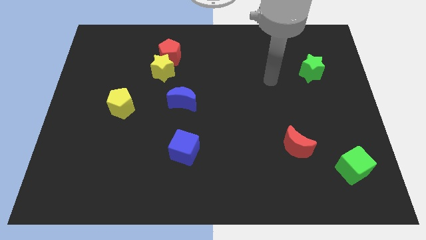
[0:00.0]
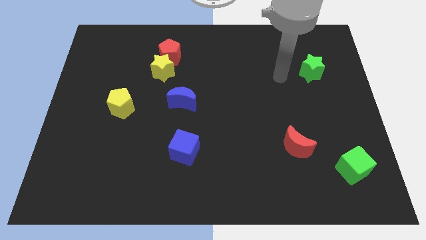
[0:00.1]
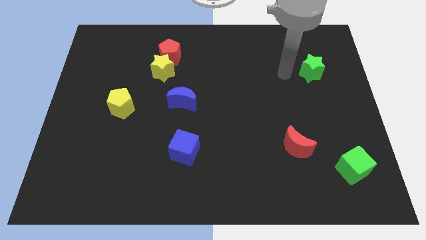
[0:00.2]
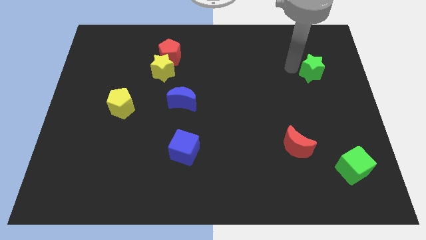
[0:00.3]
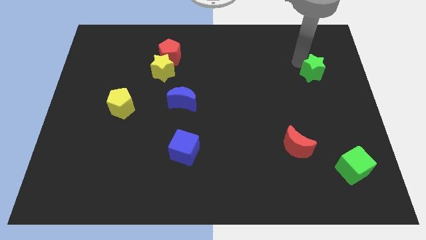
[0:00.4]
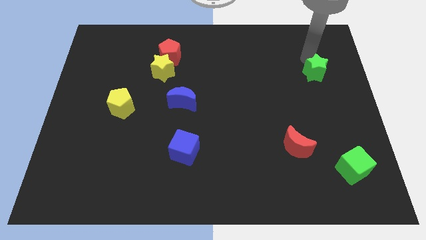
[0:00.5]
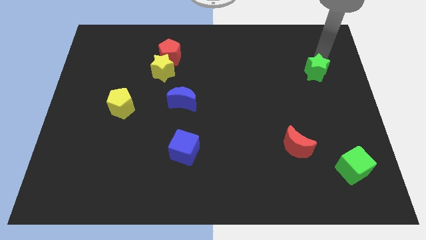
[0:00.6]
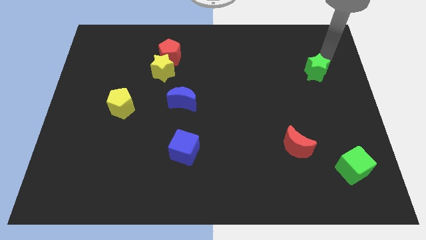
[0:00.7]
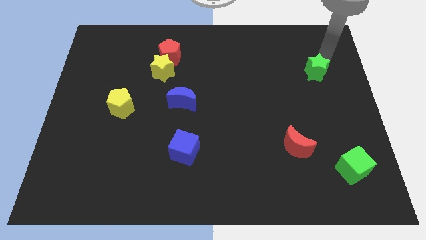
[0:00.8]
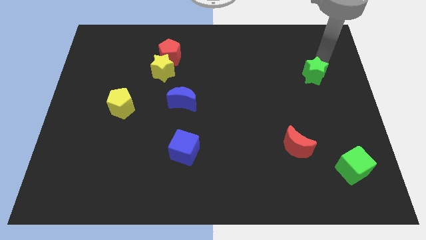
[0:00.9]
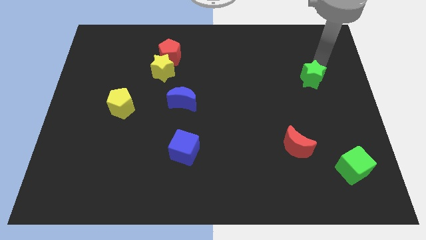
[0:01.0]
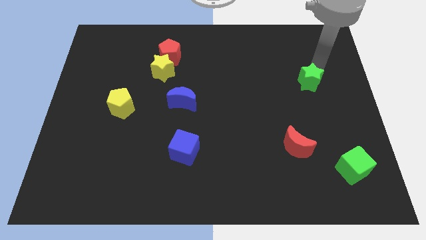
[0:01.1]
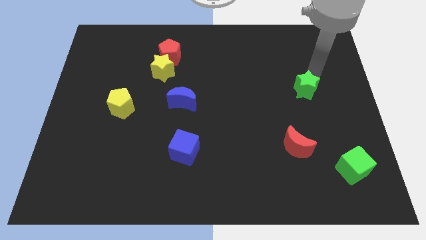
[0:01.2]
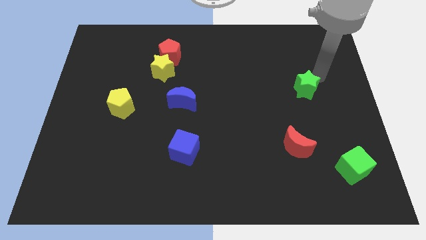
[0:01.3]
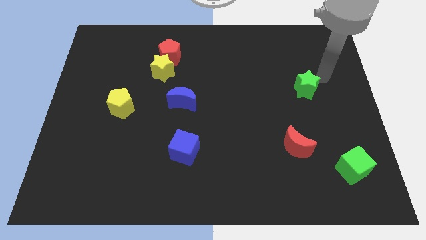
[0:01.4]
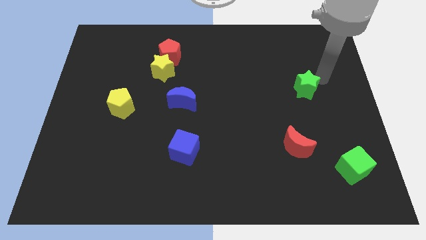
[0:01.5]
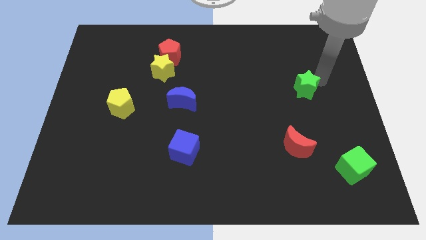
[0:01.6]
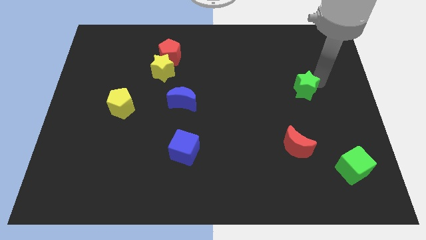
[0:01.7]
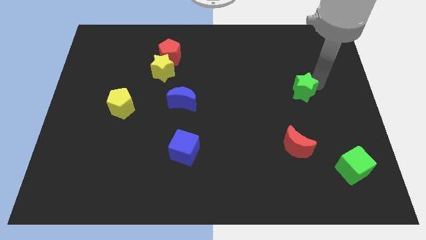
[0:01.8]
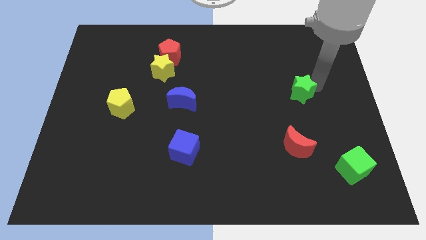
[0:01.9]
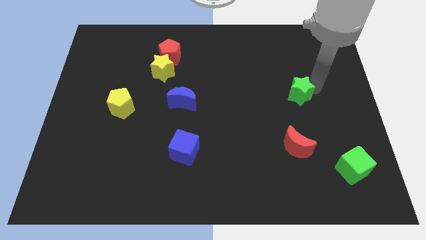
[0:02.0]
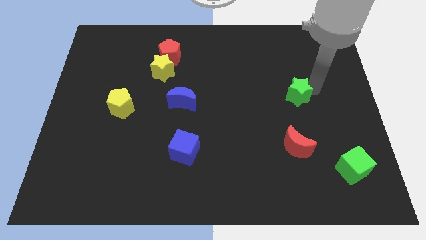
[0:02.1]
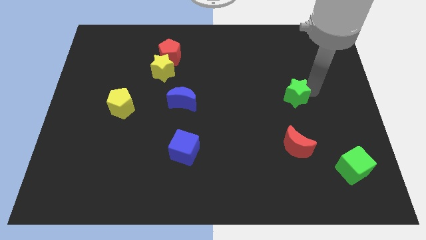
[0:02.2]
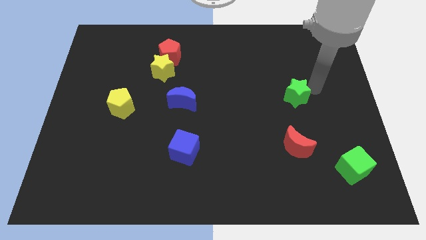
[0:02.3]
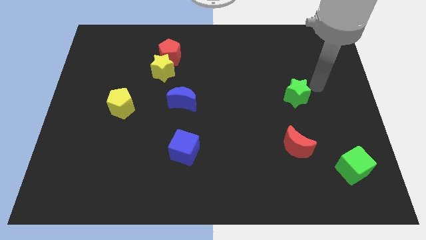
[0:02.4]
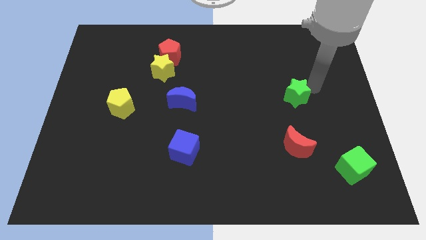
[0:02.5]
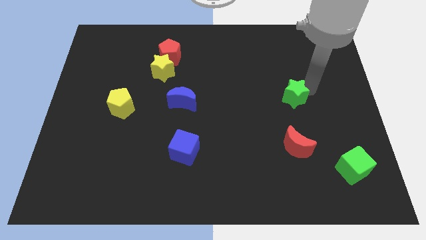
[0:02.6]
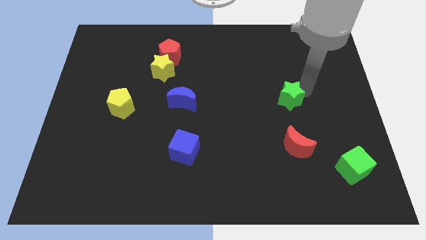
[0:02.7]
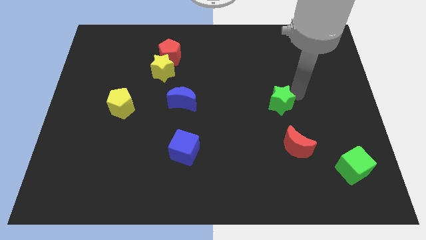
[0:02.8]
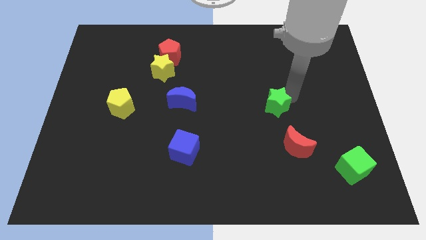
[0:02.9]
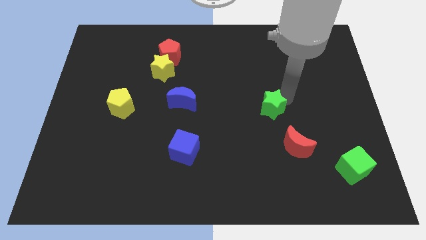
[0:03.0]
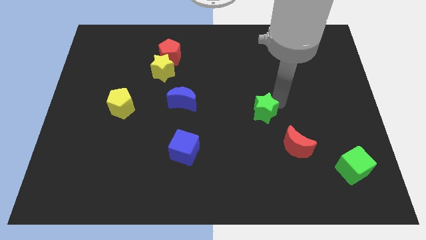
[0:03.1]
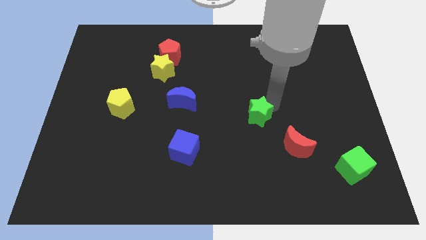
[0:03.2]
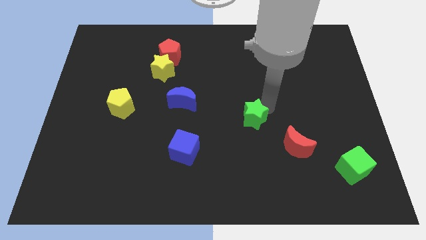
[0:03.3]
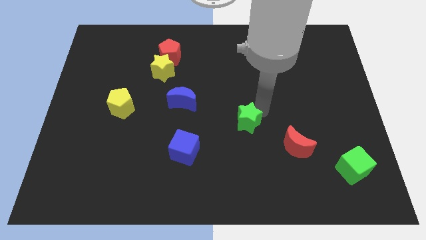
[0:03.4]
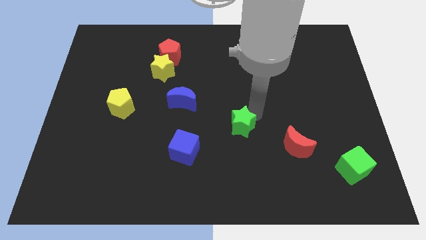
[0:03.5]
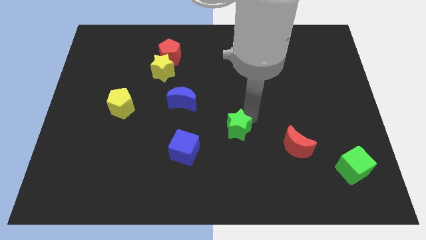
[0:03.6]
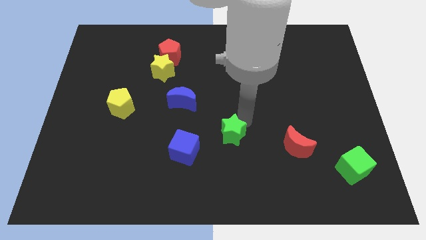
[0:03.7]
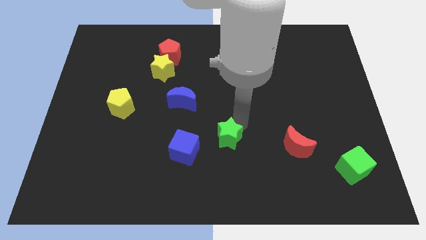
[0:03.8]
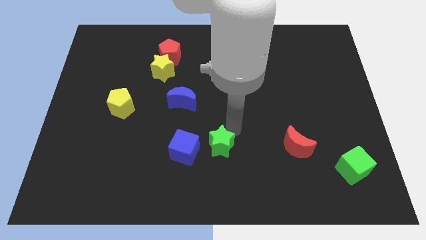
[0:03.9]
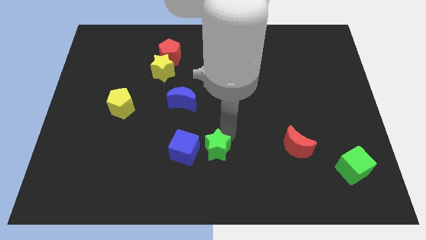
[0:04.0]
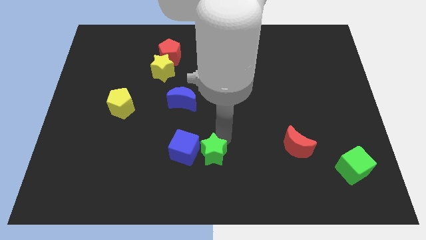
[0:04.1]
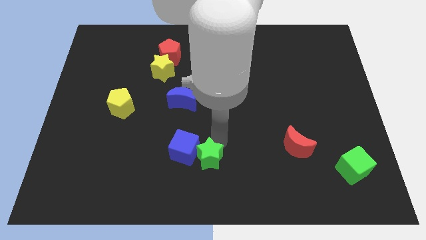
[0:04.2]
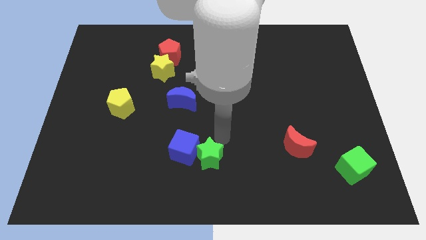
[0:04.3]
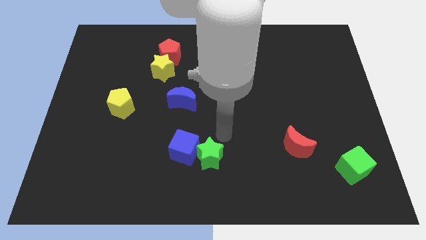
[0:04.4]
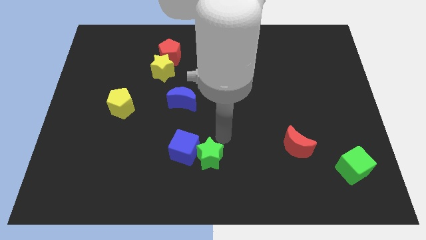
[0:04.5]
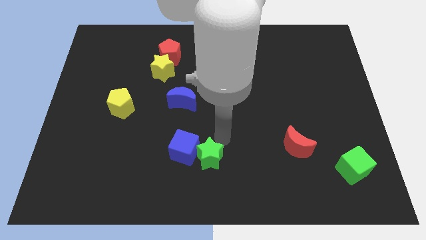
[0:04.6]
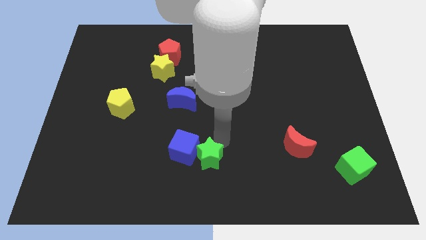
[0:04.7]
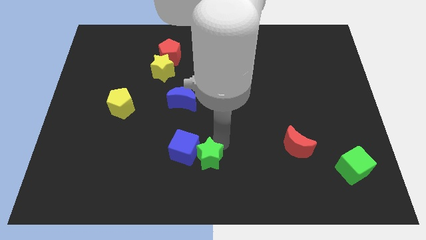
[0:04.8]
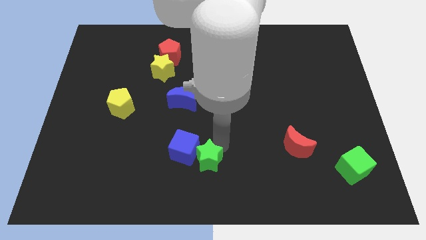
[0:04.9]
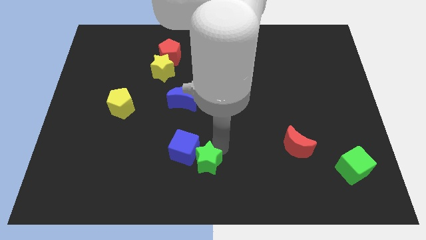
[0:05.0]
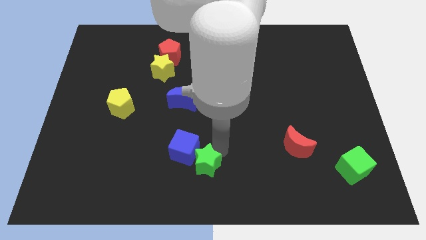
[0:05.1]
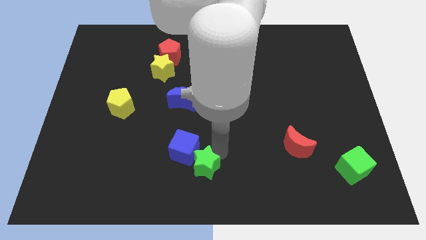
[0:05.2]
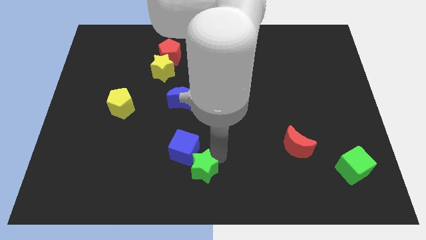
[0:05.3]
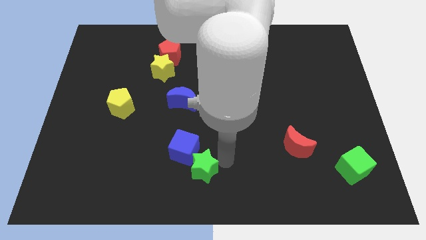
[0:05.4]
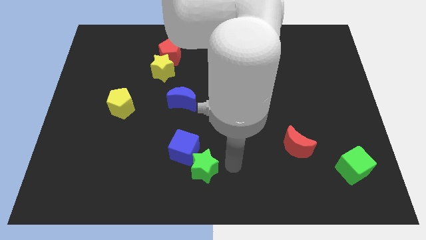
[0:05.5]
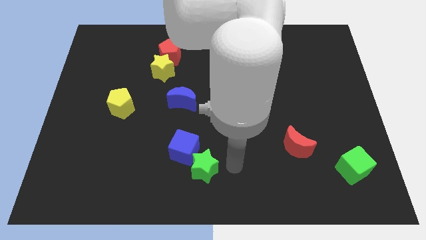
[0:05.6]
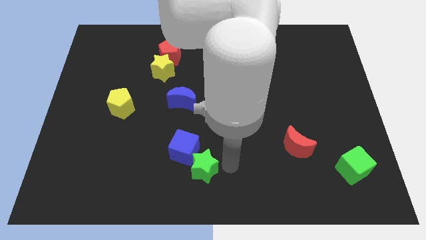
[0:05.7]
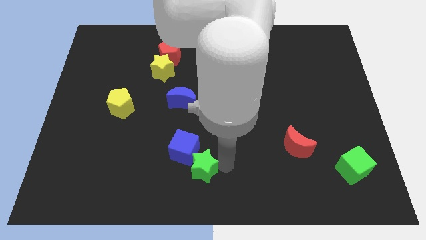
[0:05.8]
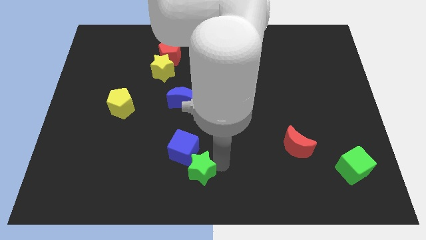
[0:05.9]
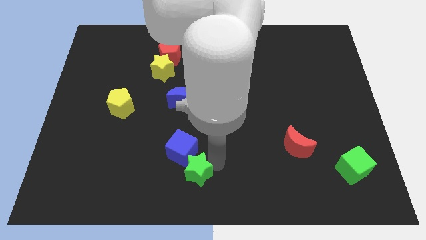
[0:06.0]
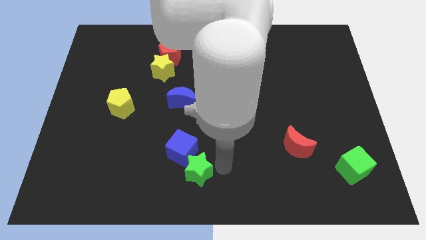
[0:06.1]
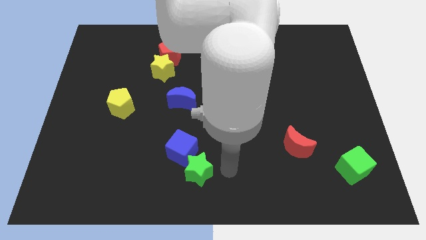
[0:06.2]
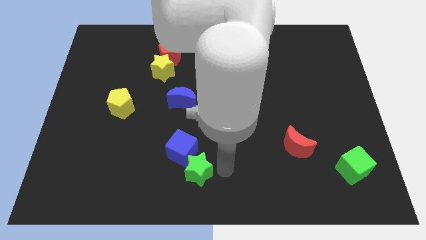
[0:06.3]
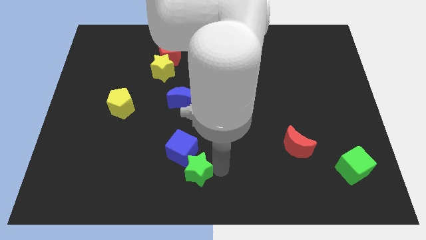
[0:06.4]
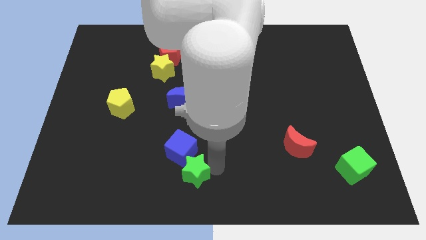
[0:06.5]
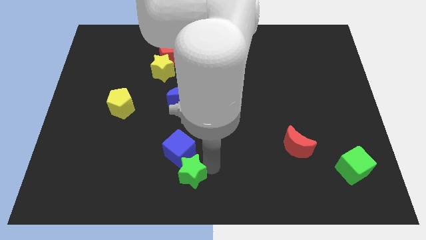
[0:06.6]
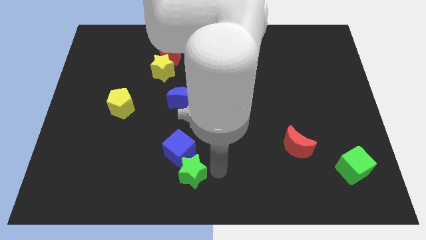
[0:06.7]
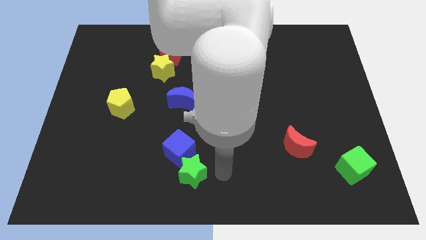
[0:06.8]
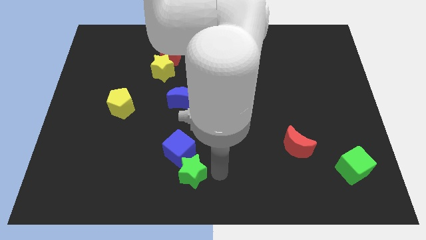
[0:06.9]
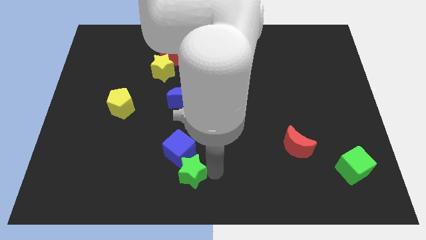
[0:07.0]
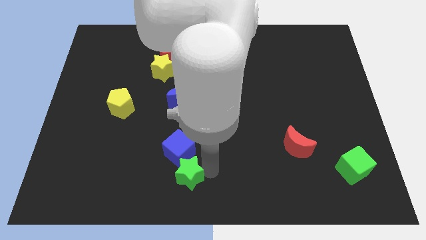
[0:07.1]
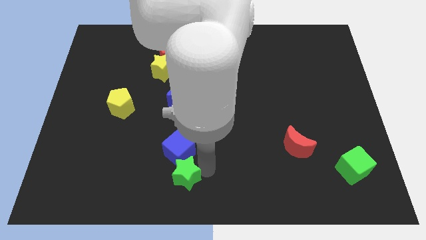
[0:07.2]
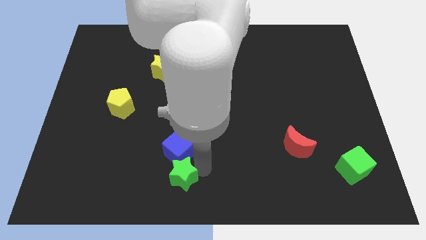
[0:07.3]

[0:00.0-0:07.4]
move the green star diagonally down and to the left of the blue cube

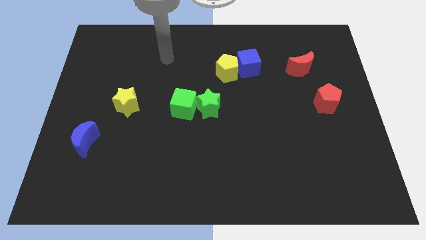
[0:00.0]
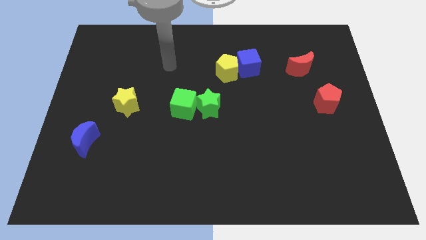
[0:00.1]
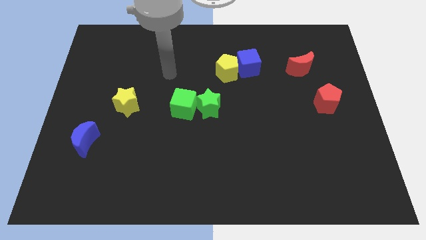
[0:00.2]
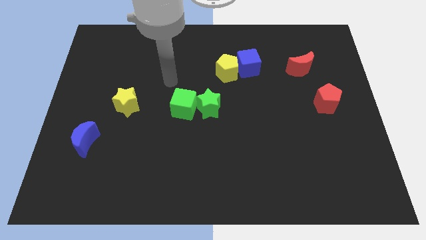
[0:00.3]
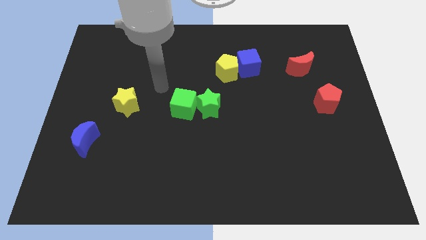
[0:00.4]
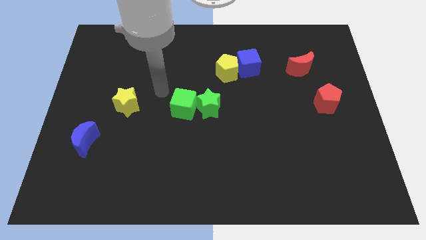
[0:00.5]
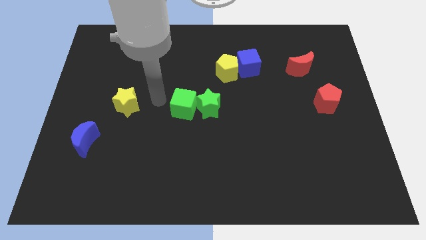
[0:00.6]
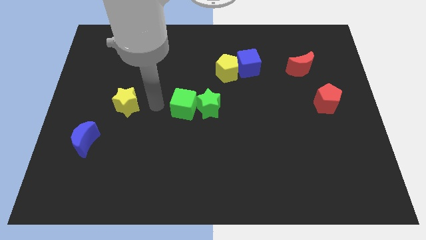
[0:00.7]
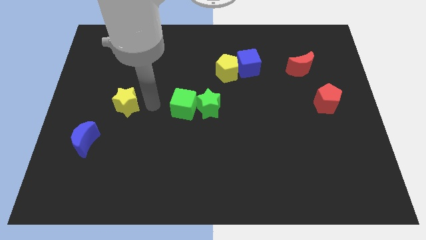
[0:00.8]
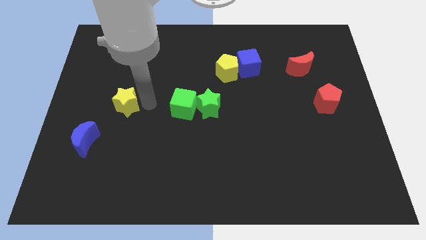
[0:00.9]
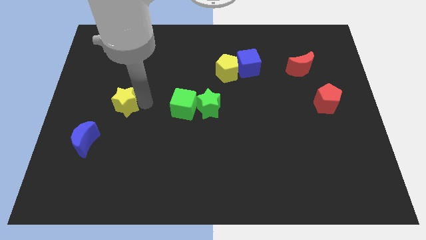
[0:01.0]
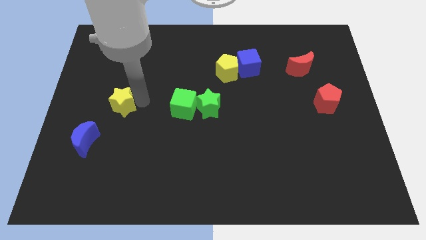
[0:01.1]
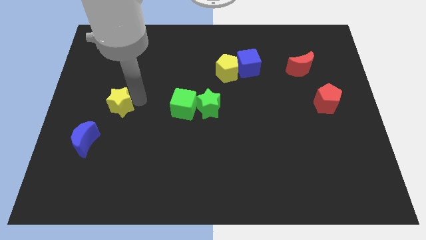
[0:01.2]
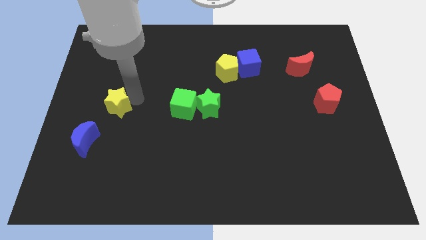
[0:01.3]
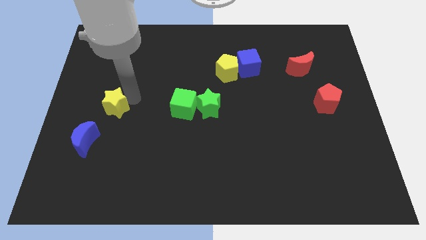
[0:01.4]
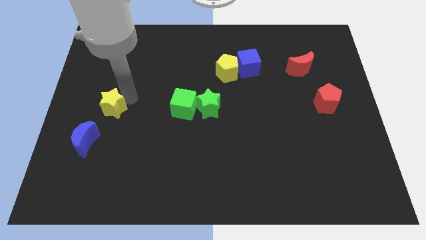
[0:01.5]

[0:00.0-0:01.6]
push the yellow star to the top of the blue moon
